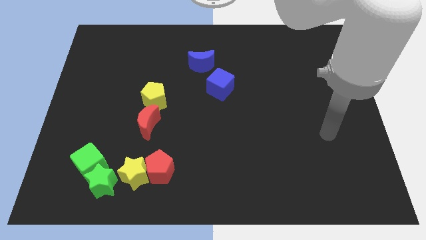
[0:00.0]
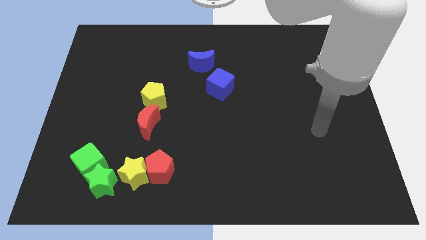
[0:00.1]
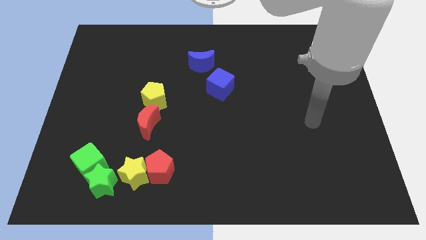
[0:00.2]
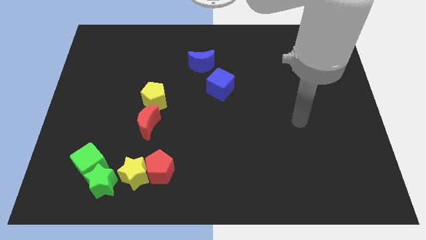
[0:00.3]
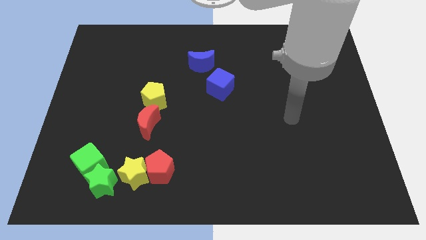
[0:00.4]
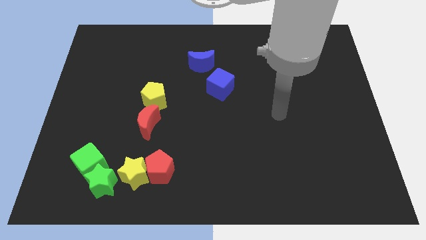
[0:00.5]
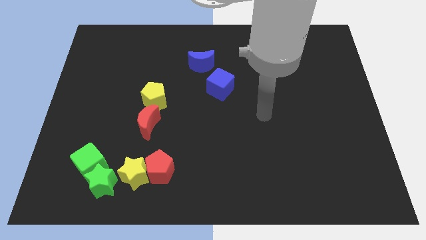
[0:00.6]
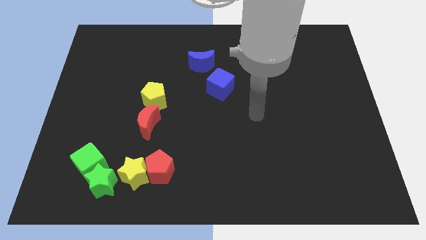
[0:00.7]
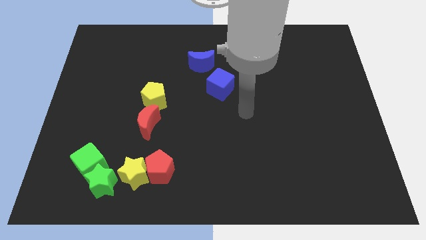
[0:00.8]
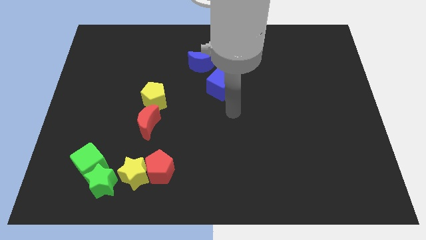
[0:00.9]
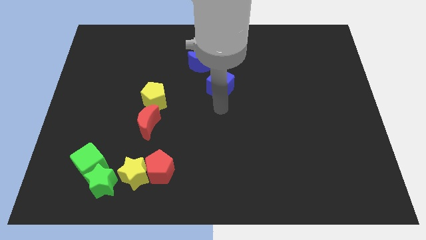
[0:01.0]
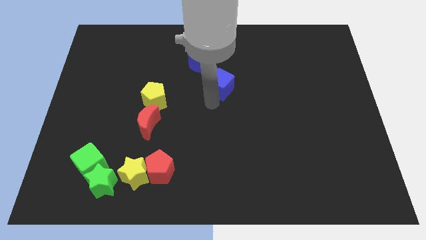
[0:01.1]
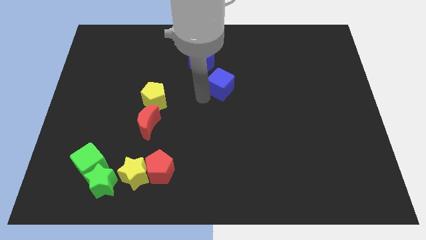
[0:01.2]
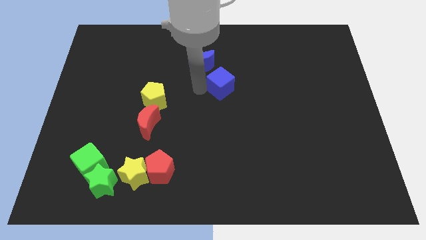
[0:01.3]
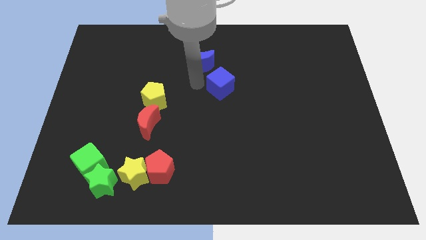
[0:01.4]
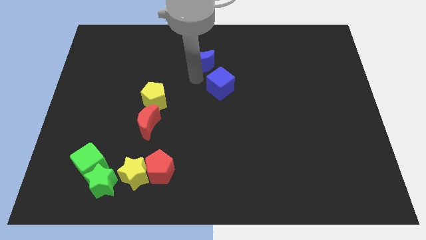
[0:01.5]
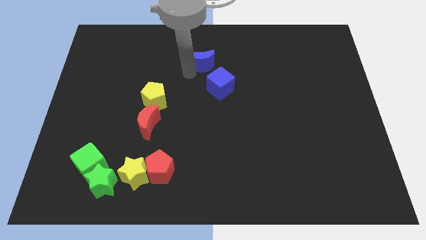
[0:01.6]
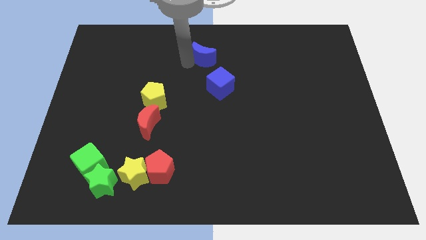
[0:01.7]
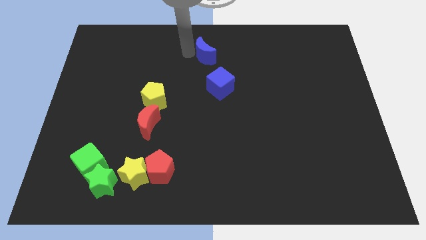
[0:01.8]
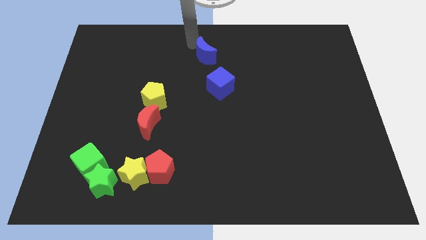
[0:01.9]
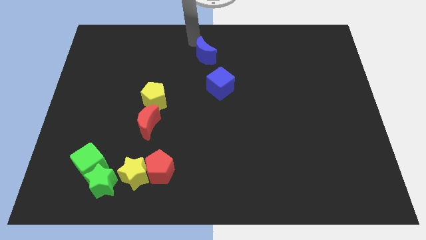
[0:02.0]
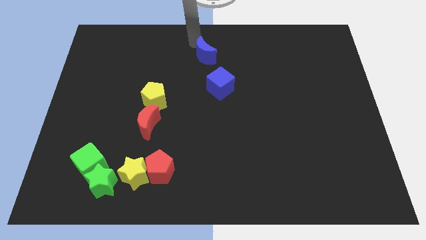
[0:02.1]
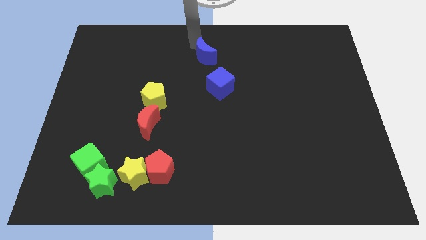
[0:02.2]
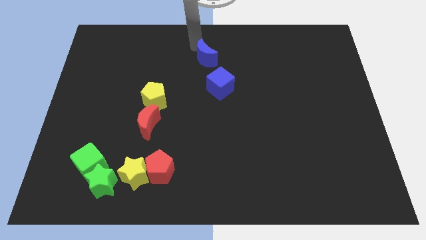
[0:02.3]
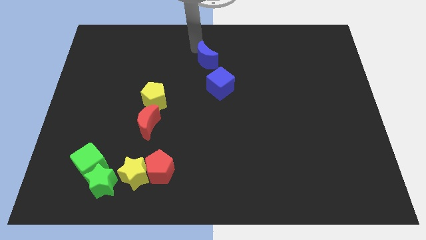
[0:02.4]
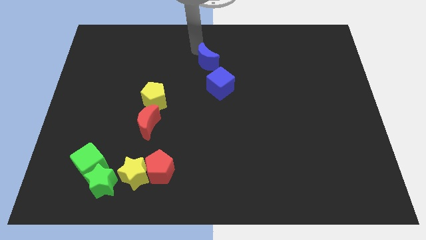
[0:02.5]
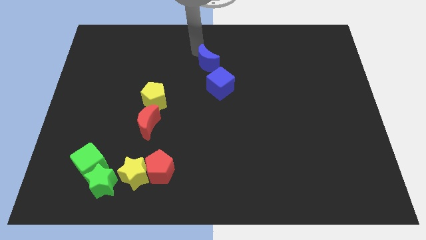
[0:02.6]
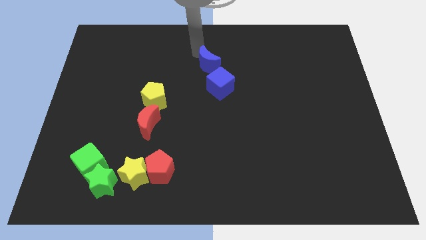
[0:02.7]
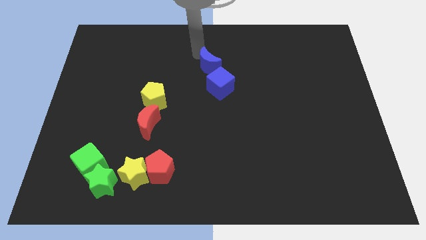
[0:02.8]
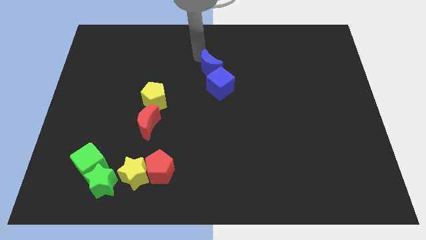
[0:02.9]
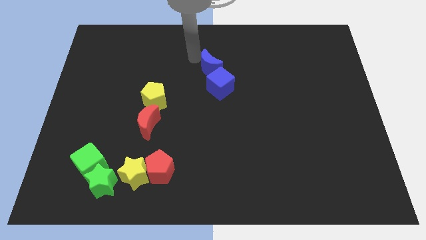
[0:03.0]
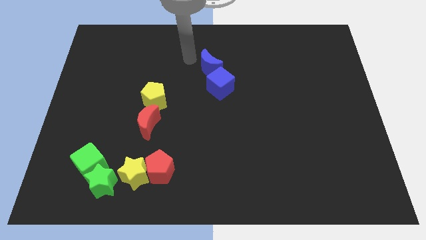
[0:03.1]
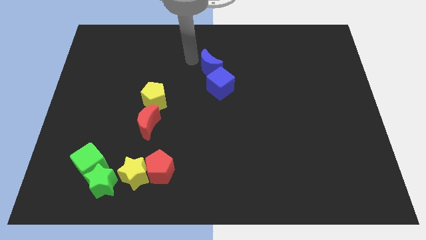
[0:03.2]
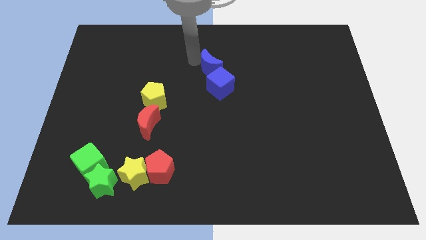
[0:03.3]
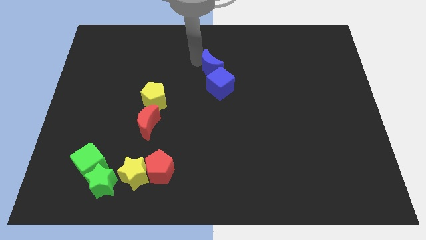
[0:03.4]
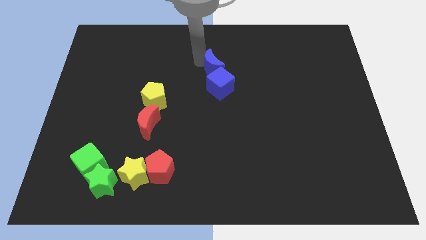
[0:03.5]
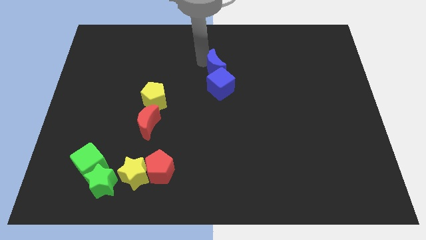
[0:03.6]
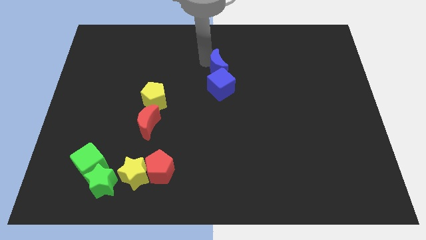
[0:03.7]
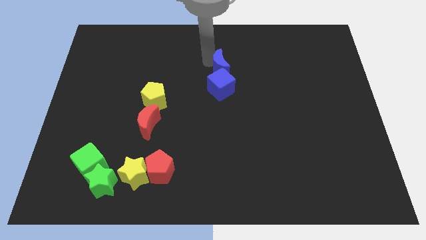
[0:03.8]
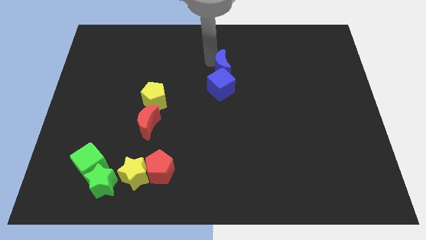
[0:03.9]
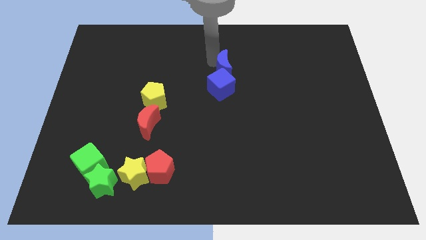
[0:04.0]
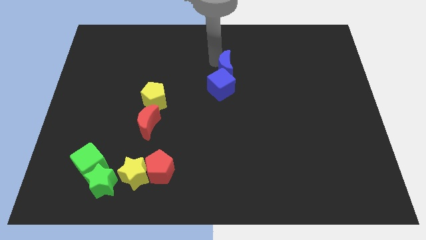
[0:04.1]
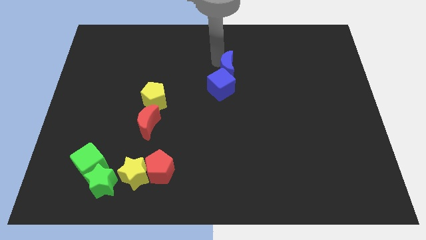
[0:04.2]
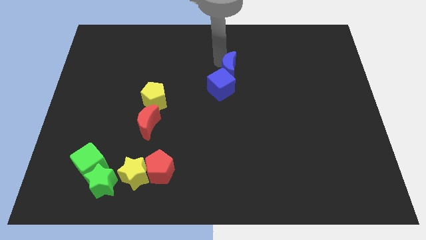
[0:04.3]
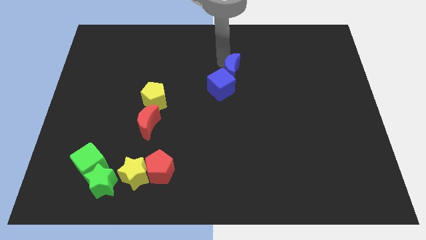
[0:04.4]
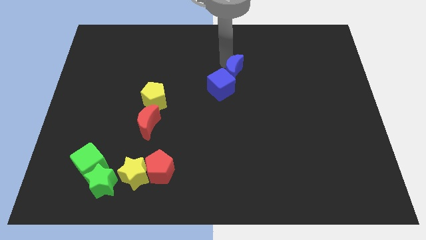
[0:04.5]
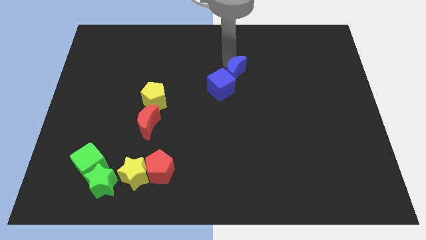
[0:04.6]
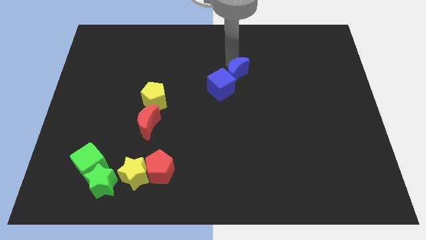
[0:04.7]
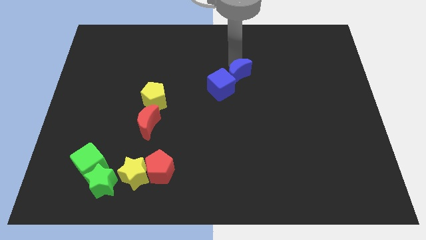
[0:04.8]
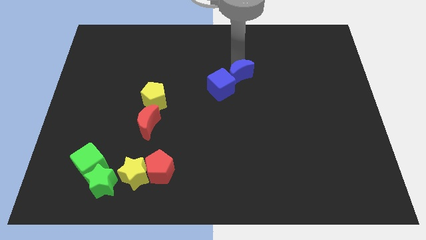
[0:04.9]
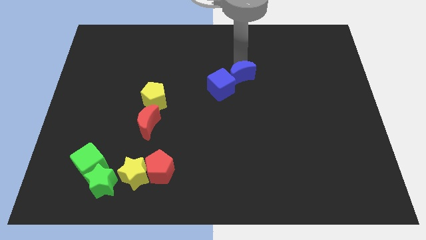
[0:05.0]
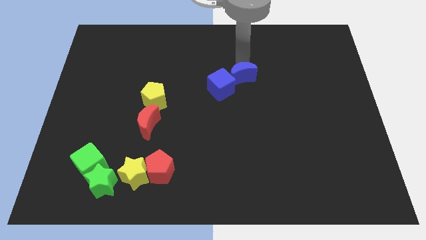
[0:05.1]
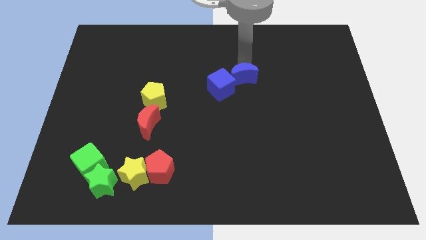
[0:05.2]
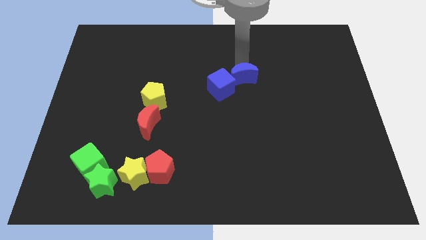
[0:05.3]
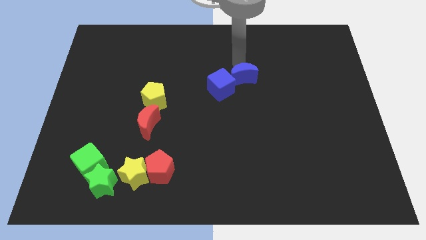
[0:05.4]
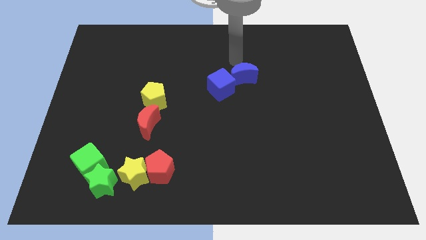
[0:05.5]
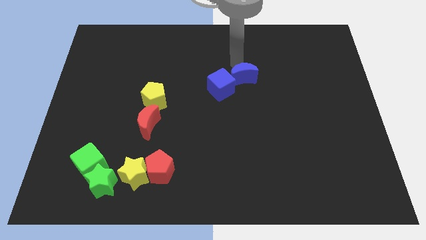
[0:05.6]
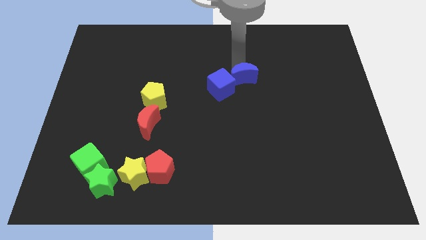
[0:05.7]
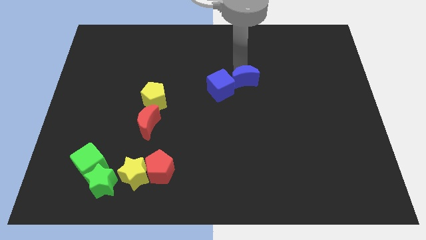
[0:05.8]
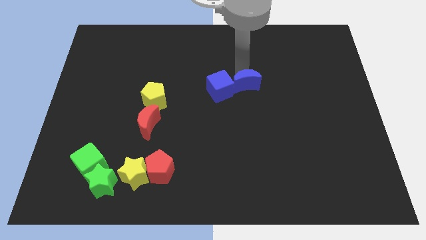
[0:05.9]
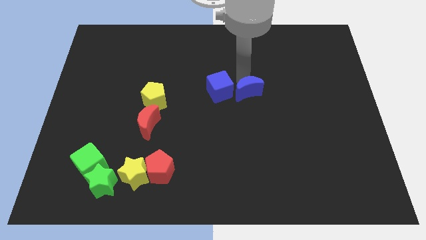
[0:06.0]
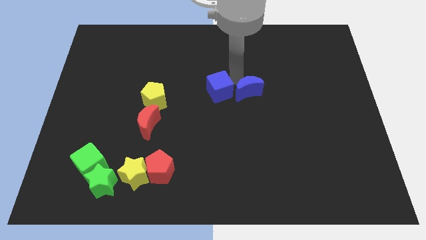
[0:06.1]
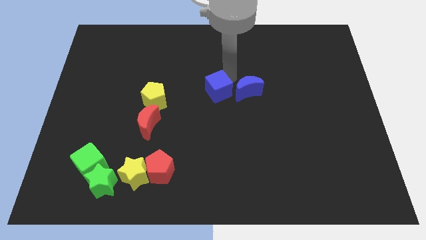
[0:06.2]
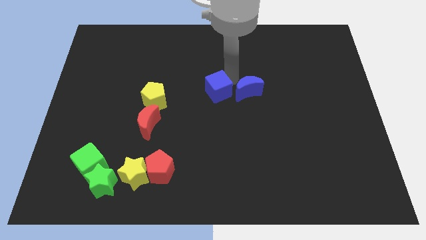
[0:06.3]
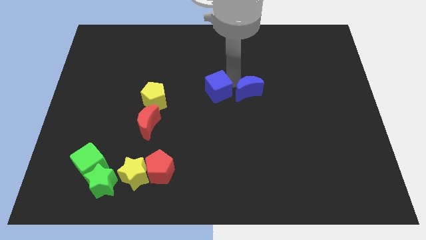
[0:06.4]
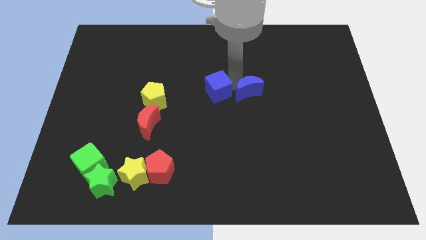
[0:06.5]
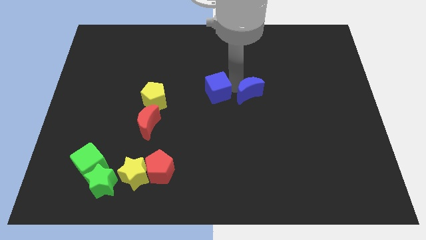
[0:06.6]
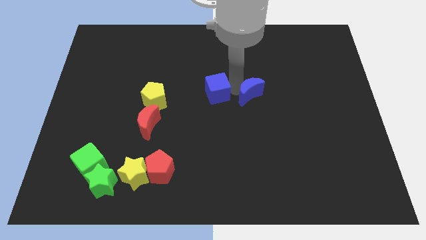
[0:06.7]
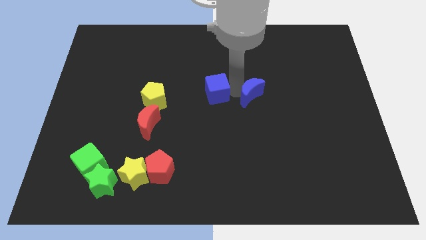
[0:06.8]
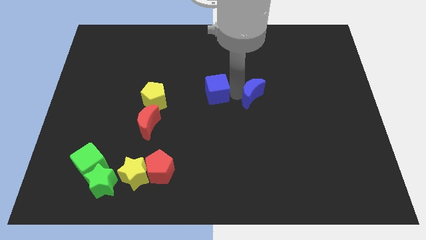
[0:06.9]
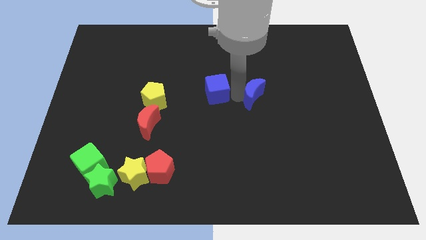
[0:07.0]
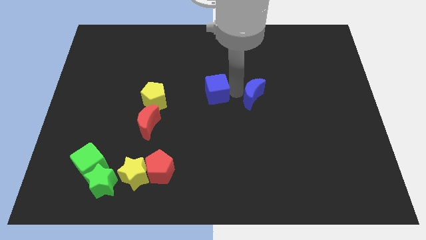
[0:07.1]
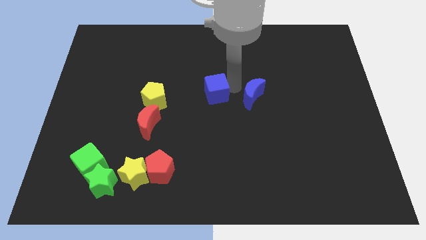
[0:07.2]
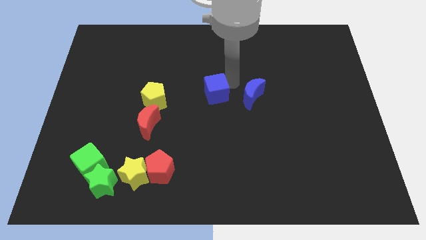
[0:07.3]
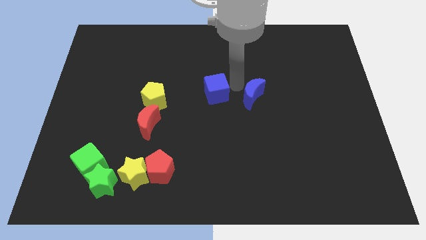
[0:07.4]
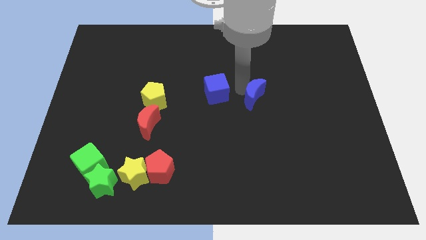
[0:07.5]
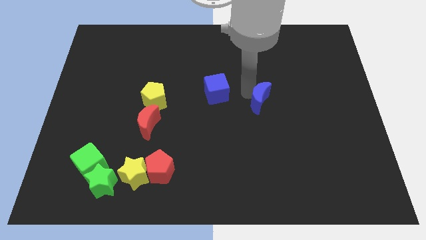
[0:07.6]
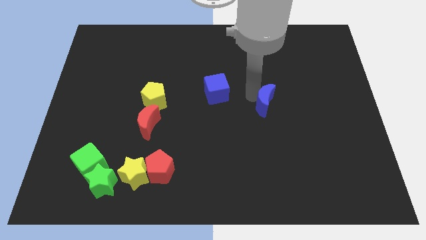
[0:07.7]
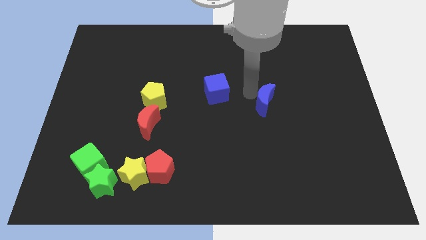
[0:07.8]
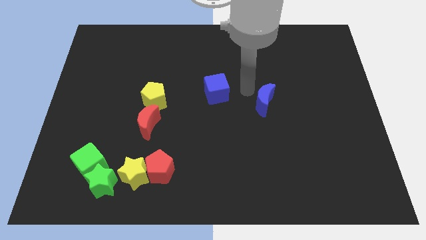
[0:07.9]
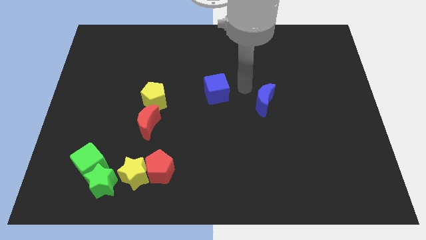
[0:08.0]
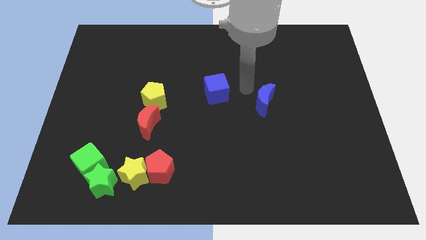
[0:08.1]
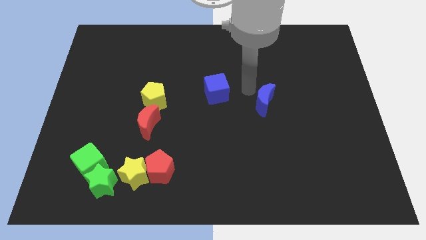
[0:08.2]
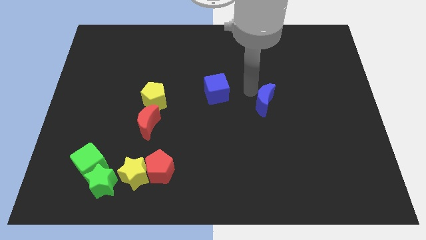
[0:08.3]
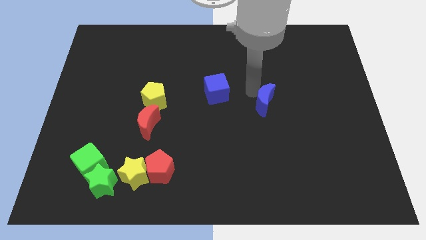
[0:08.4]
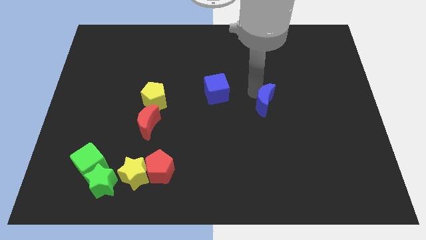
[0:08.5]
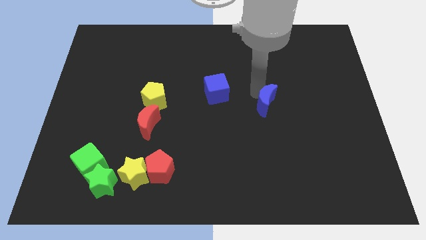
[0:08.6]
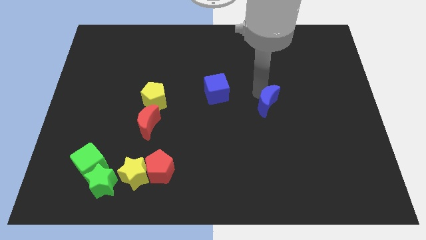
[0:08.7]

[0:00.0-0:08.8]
push the blue moon diagonally down and to the right
